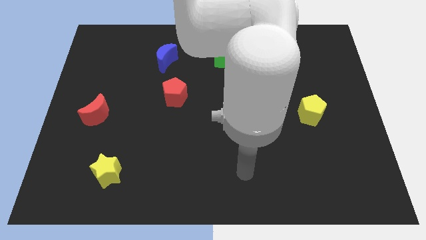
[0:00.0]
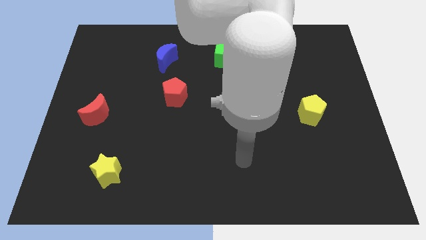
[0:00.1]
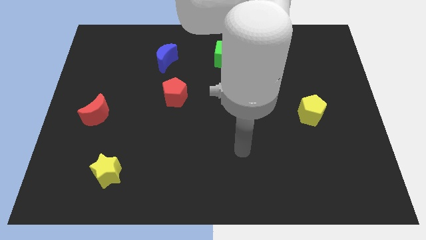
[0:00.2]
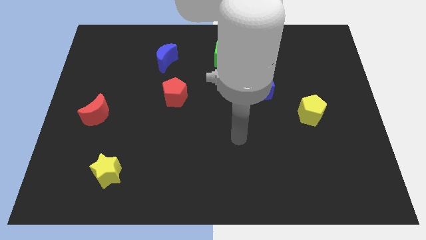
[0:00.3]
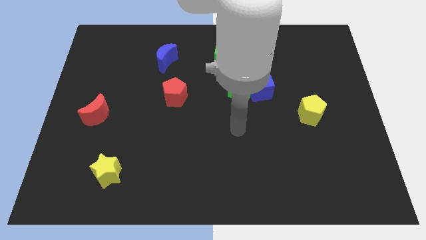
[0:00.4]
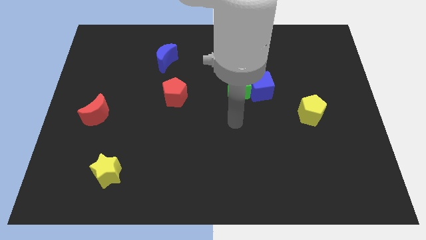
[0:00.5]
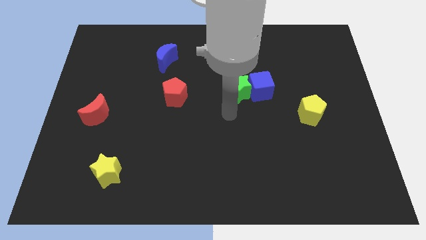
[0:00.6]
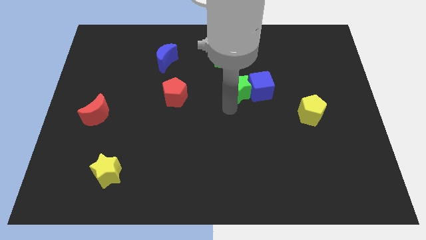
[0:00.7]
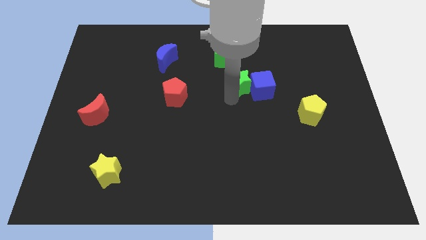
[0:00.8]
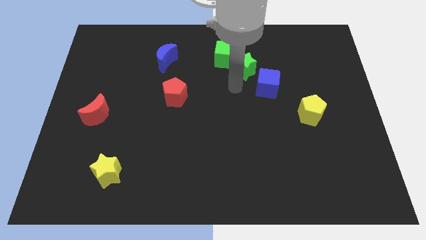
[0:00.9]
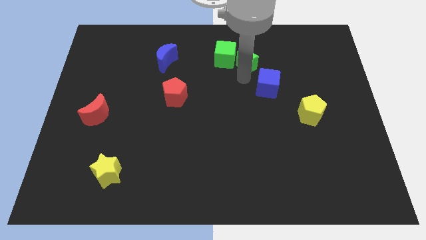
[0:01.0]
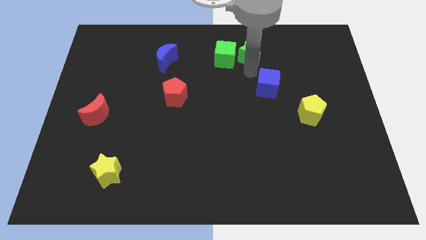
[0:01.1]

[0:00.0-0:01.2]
separate the blue cube from the green star

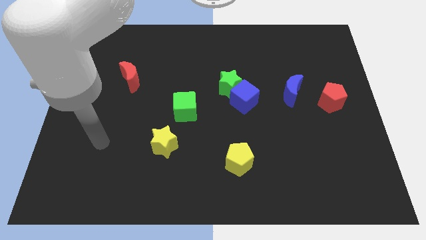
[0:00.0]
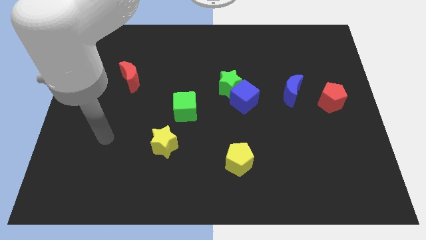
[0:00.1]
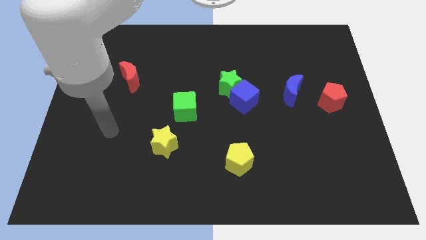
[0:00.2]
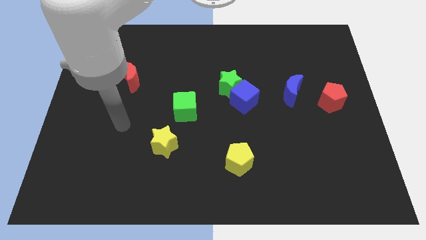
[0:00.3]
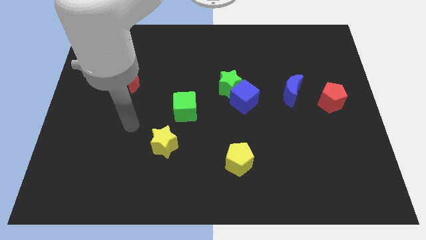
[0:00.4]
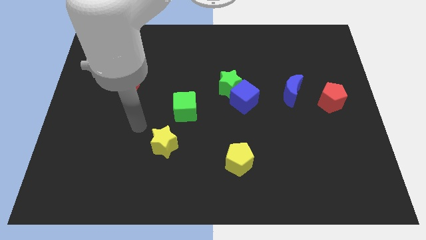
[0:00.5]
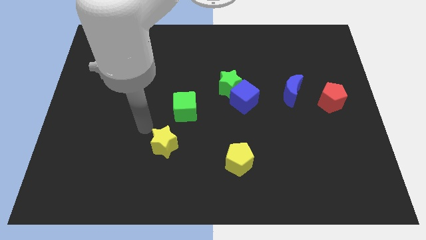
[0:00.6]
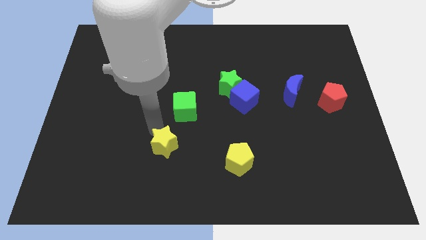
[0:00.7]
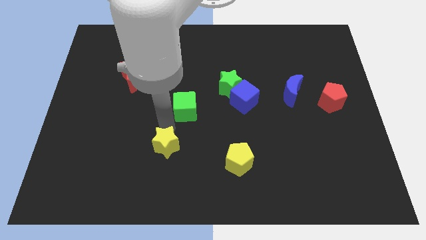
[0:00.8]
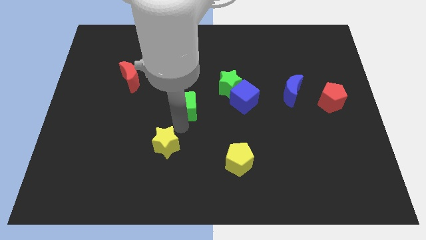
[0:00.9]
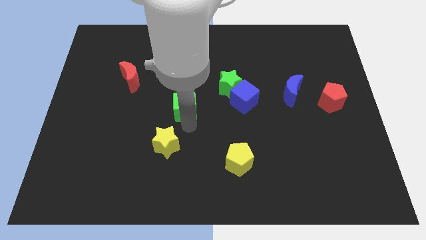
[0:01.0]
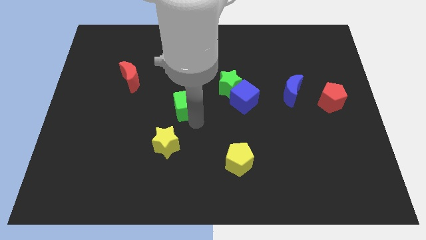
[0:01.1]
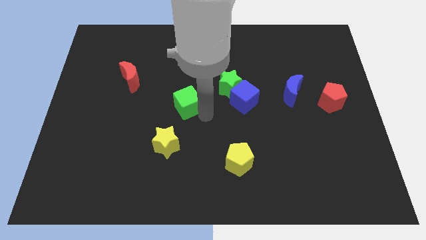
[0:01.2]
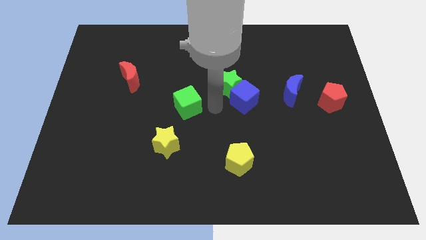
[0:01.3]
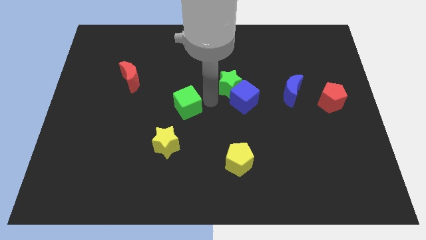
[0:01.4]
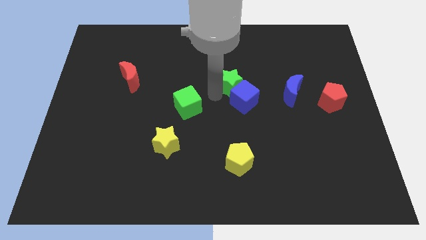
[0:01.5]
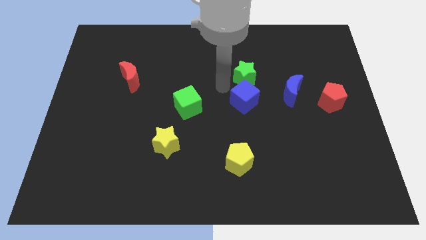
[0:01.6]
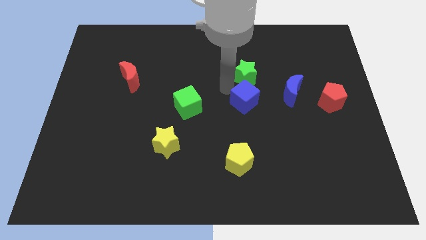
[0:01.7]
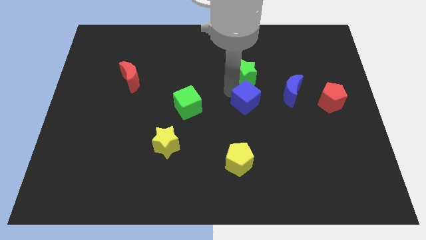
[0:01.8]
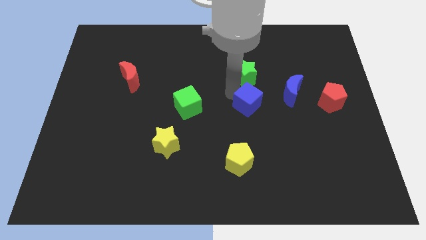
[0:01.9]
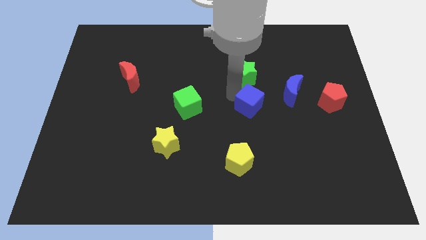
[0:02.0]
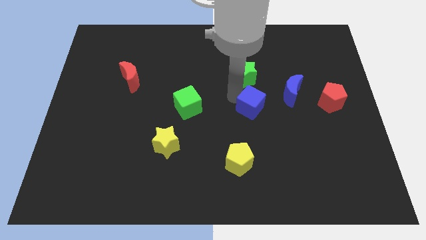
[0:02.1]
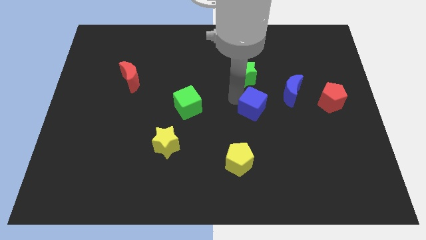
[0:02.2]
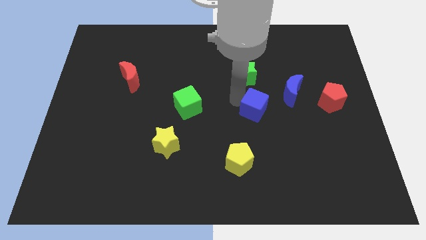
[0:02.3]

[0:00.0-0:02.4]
pull the blue cube apart from the green star

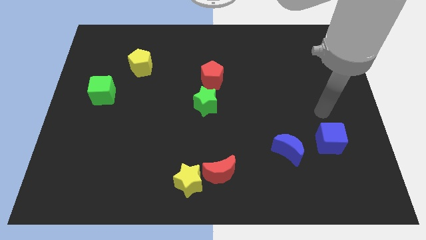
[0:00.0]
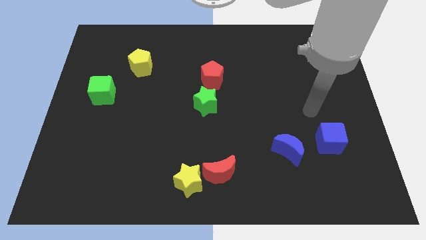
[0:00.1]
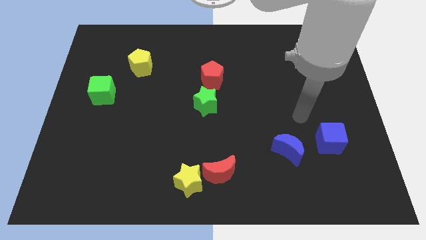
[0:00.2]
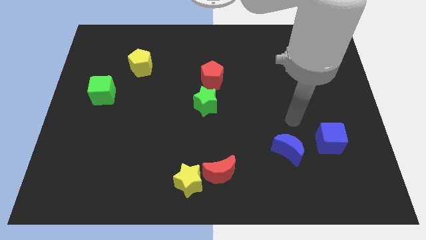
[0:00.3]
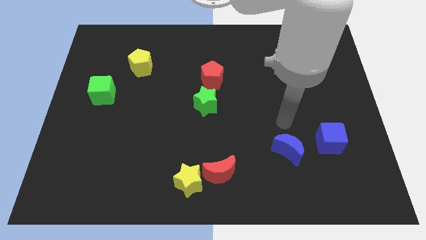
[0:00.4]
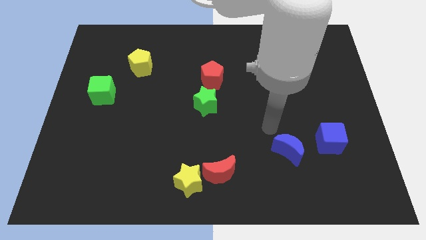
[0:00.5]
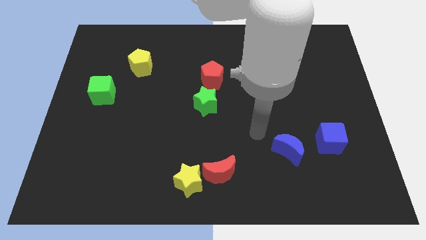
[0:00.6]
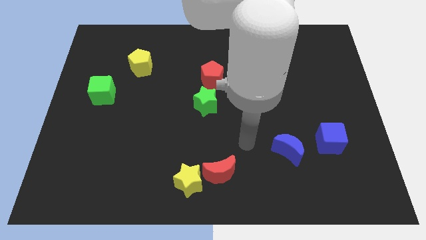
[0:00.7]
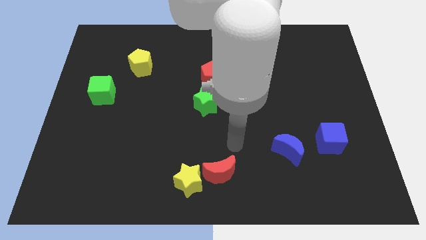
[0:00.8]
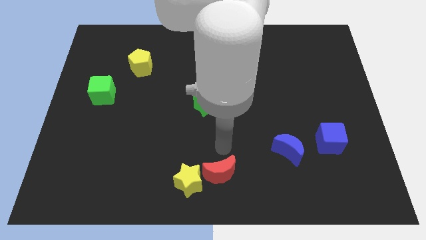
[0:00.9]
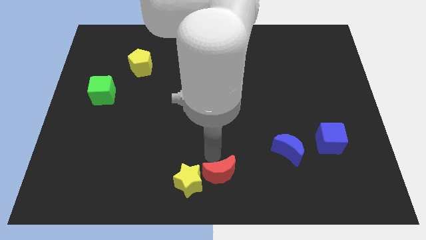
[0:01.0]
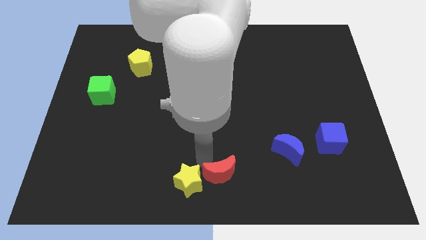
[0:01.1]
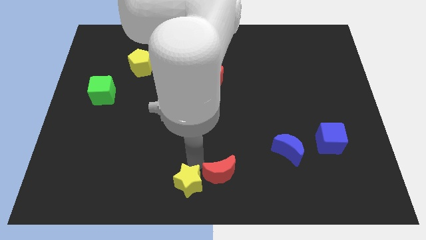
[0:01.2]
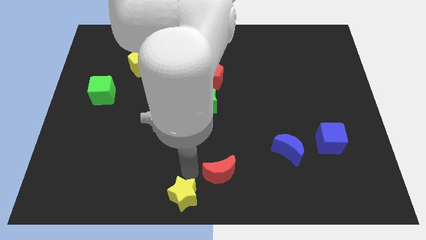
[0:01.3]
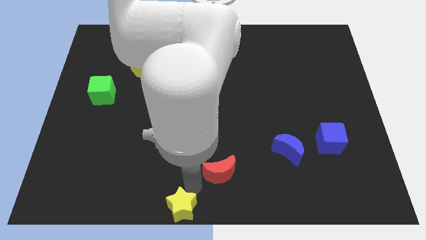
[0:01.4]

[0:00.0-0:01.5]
pull the red moon apart from the yellow star

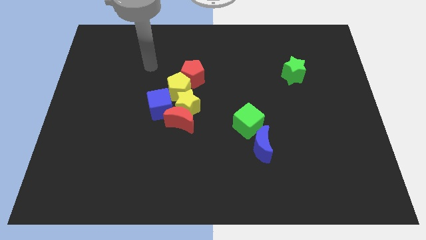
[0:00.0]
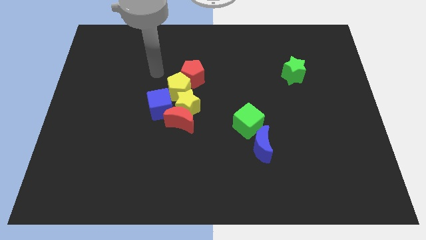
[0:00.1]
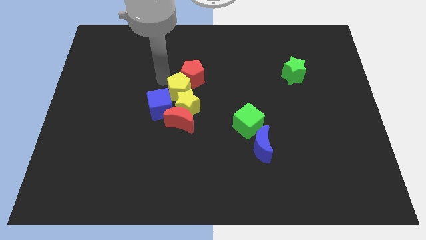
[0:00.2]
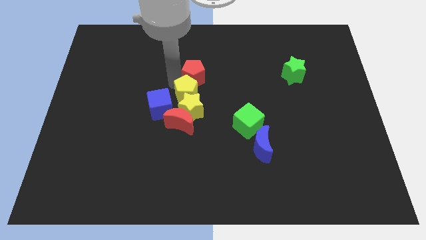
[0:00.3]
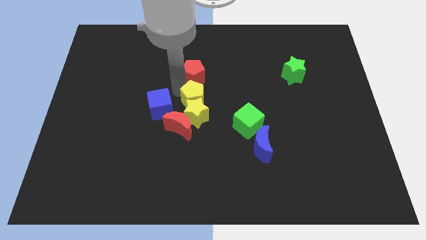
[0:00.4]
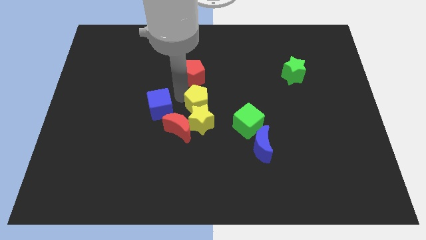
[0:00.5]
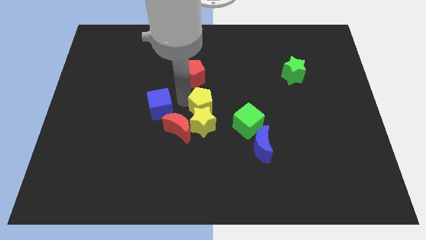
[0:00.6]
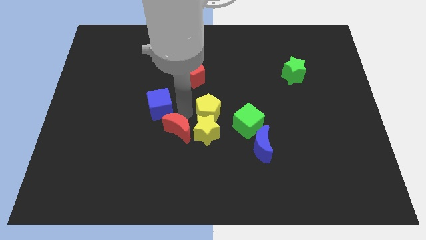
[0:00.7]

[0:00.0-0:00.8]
separate the blue cube from the yellow star, yellow pentagon, and red moon

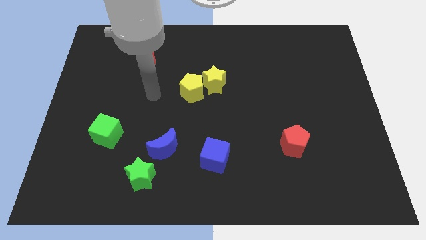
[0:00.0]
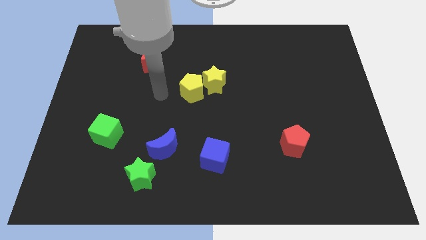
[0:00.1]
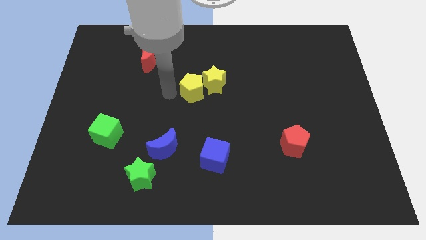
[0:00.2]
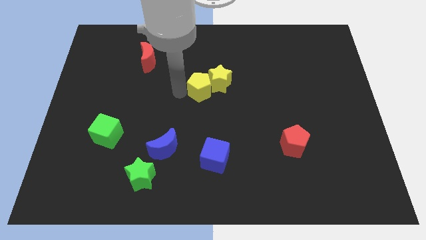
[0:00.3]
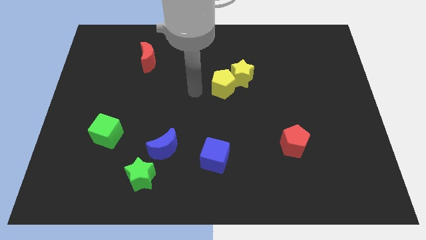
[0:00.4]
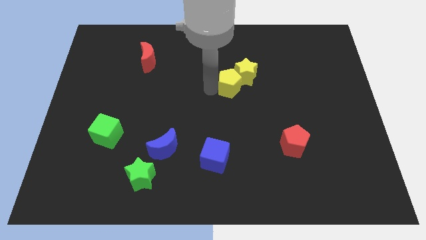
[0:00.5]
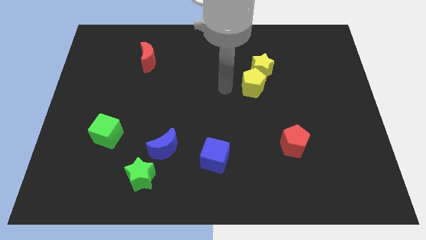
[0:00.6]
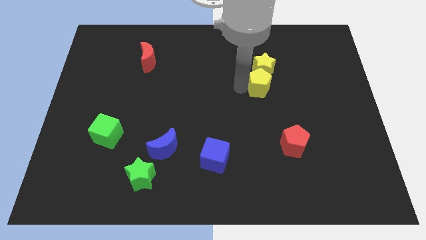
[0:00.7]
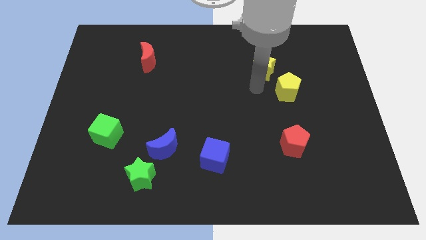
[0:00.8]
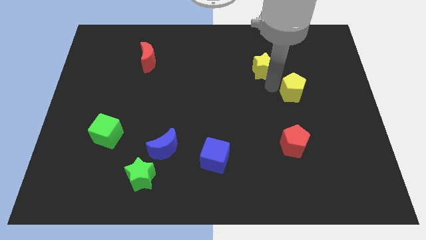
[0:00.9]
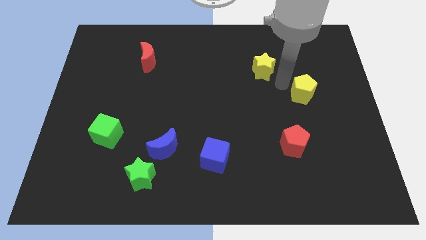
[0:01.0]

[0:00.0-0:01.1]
move the yellow star away from the yellow pentagon

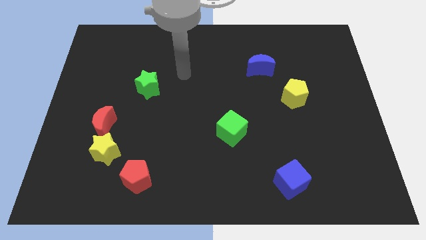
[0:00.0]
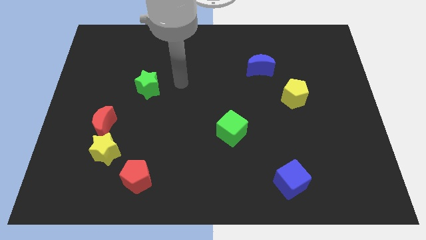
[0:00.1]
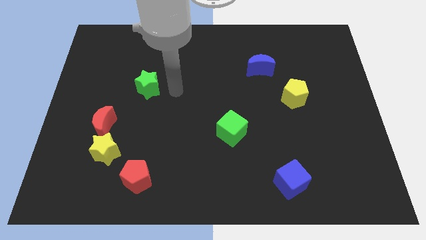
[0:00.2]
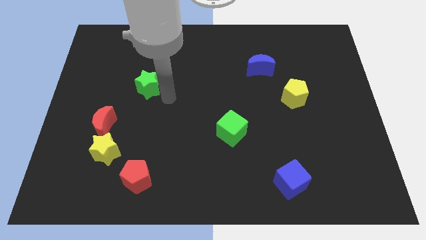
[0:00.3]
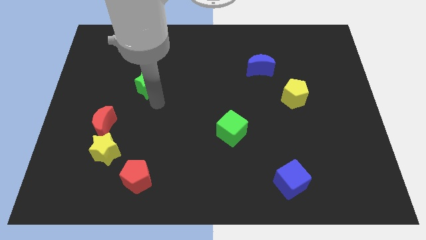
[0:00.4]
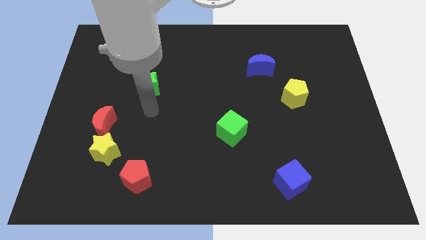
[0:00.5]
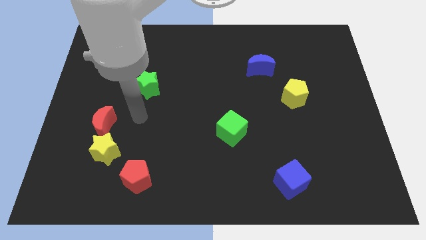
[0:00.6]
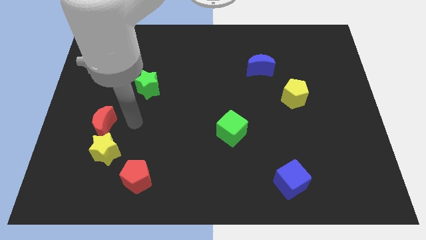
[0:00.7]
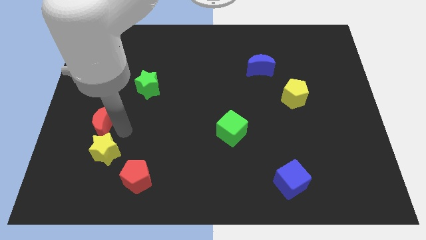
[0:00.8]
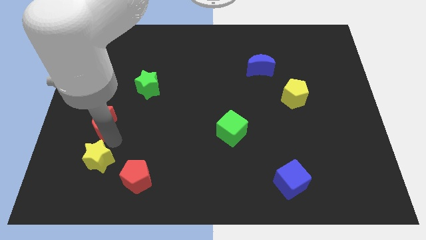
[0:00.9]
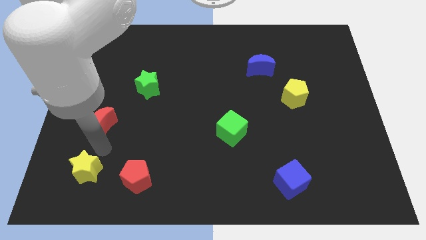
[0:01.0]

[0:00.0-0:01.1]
move the red moon away from the yellow star

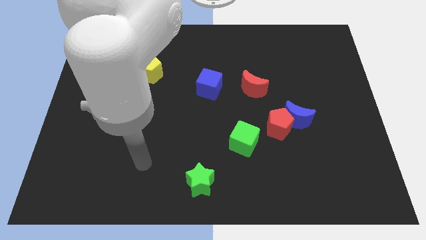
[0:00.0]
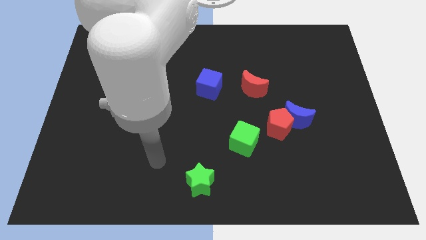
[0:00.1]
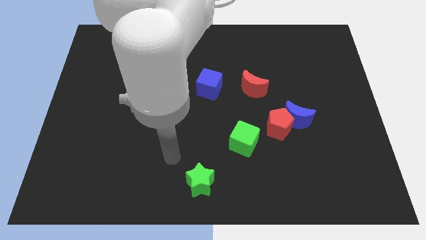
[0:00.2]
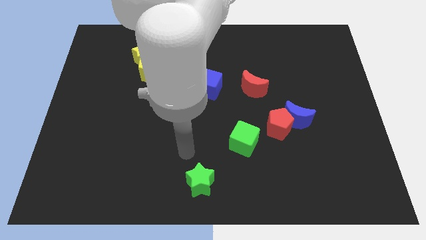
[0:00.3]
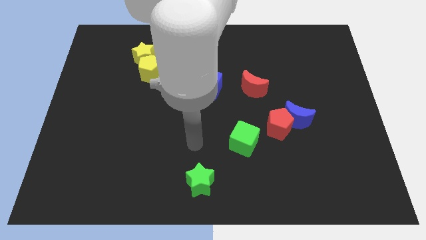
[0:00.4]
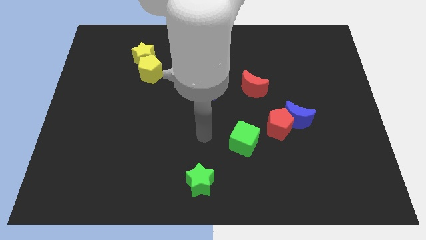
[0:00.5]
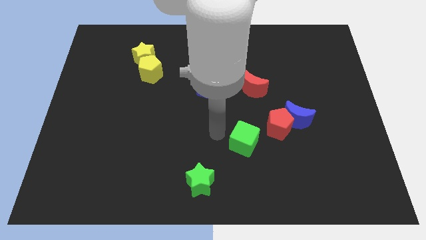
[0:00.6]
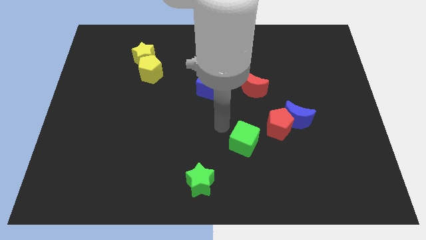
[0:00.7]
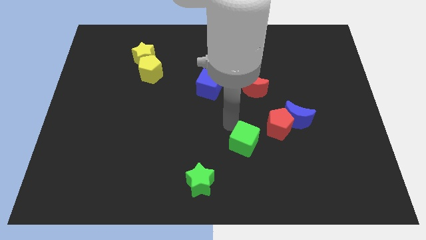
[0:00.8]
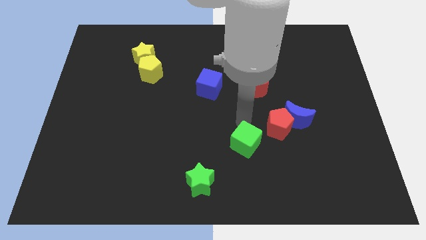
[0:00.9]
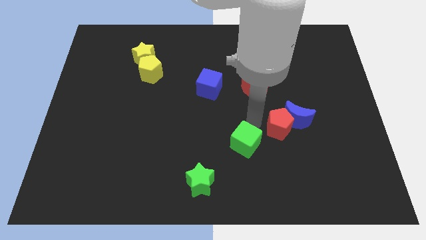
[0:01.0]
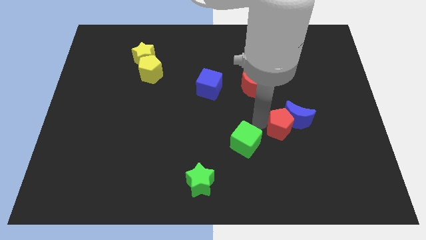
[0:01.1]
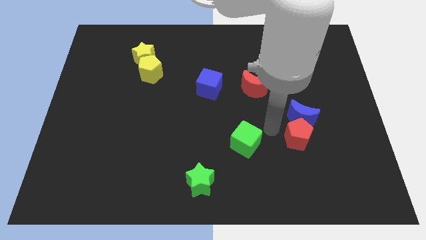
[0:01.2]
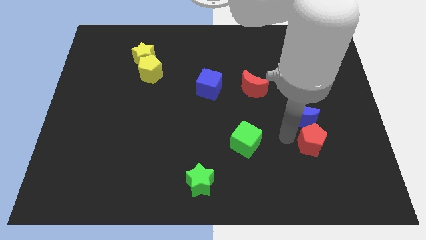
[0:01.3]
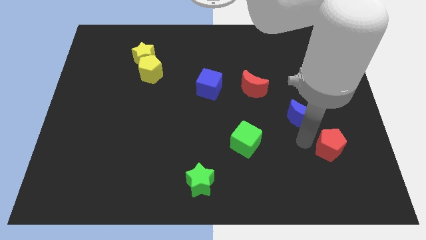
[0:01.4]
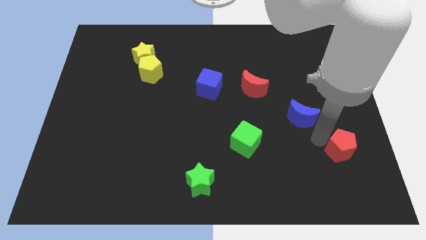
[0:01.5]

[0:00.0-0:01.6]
pull the blue moon apart from the red pentagon
